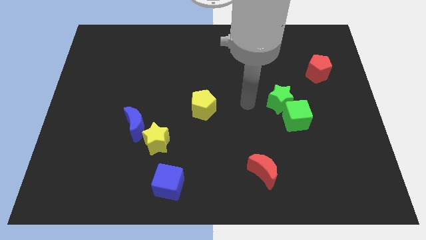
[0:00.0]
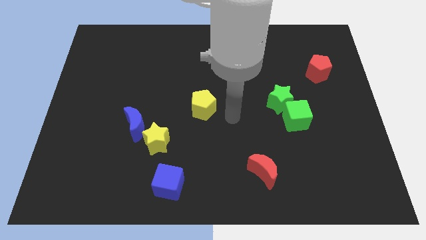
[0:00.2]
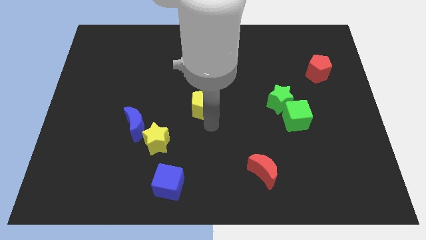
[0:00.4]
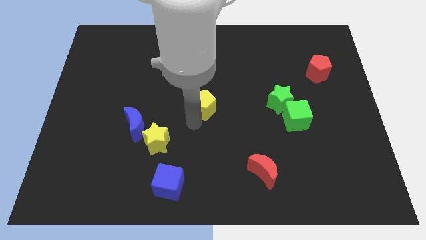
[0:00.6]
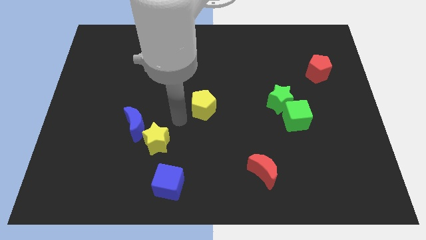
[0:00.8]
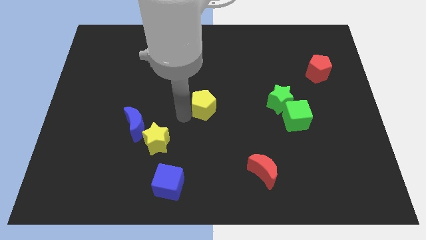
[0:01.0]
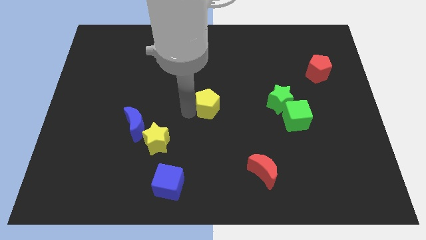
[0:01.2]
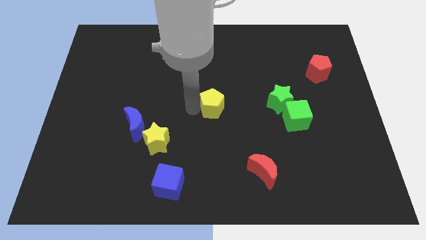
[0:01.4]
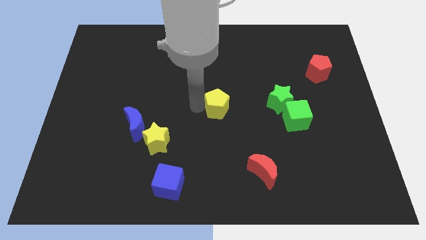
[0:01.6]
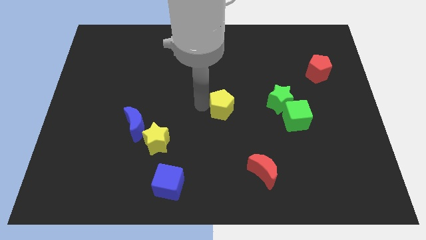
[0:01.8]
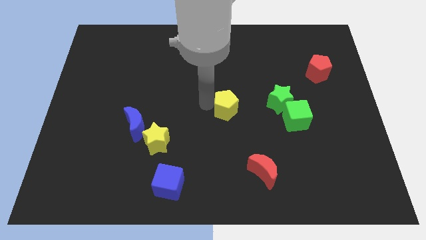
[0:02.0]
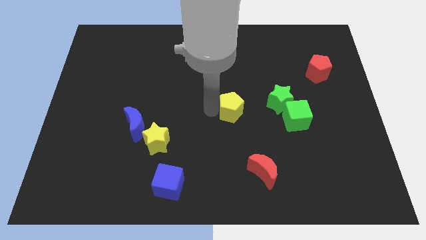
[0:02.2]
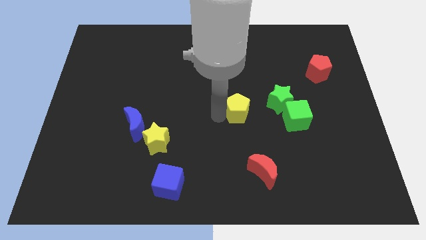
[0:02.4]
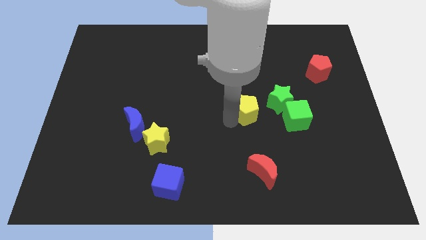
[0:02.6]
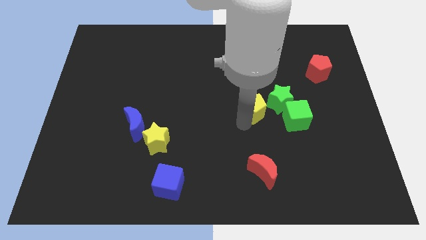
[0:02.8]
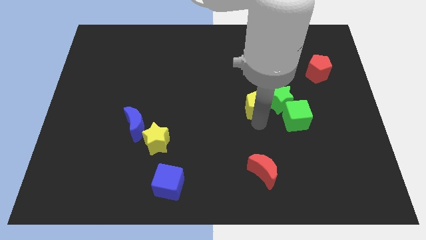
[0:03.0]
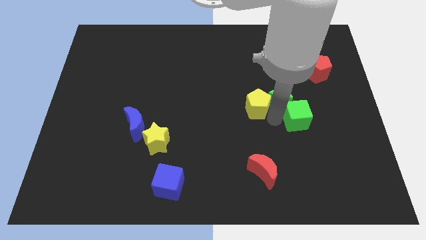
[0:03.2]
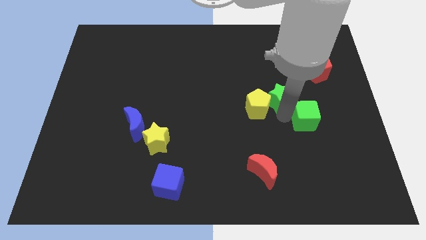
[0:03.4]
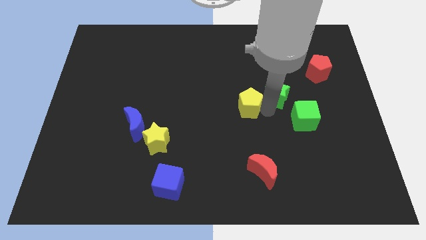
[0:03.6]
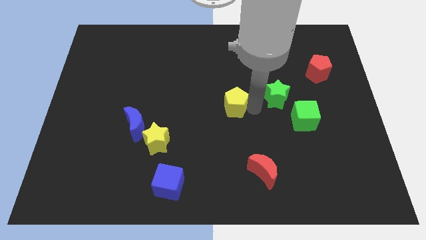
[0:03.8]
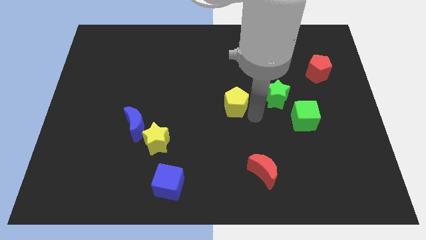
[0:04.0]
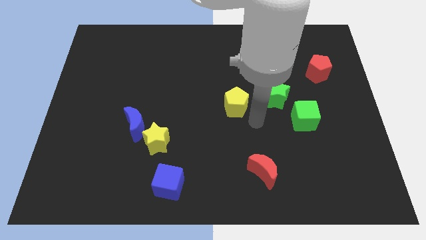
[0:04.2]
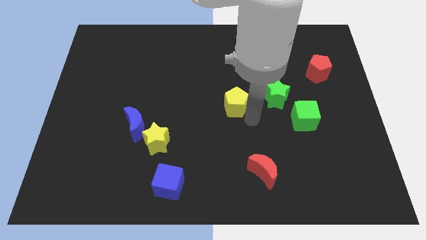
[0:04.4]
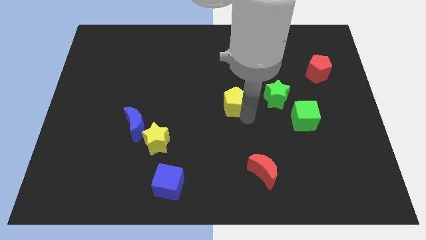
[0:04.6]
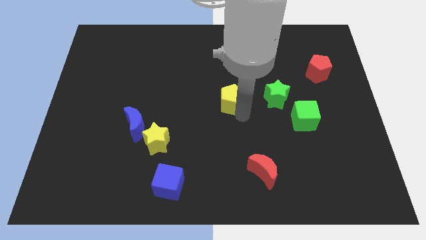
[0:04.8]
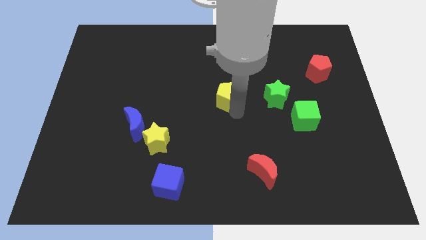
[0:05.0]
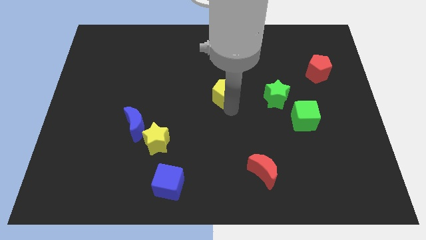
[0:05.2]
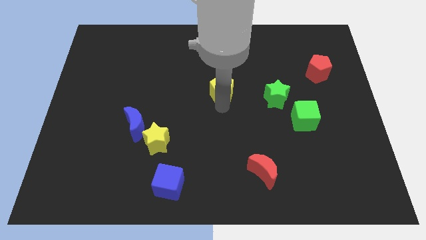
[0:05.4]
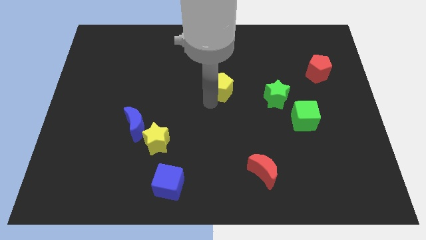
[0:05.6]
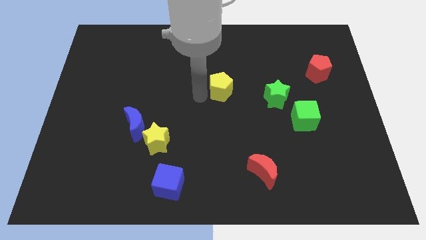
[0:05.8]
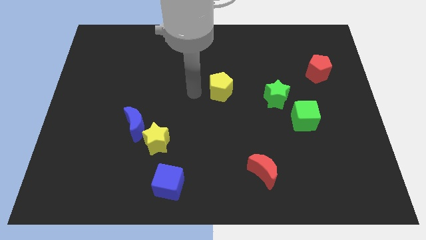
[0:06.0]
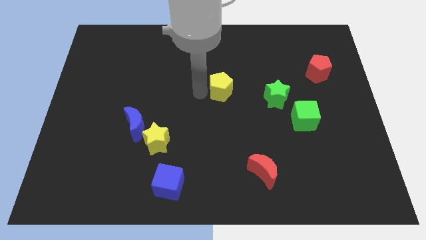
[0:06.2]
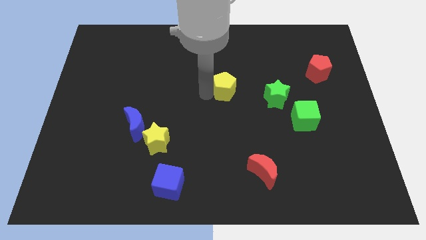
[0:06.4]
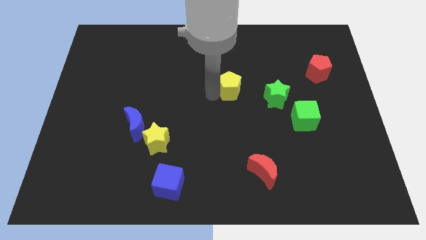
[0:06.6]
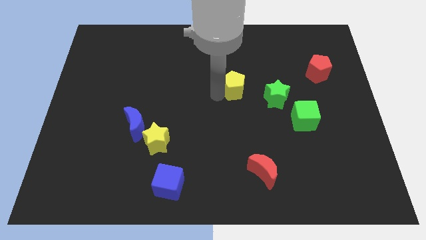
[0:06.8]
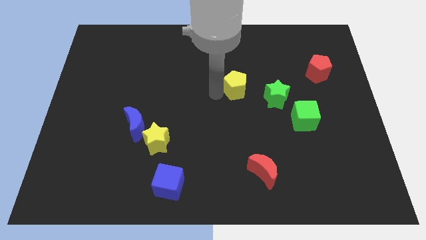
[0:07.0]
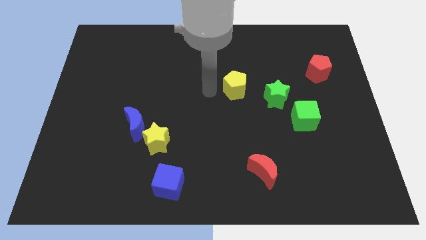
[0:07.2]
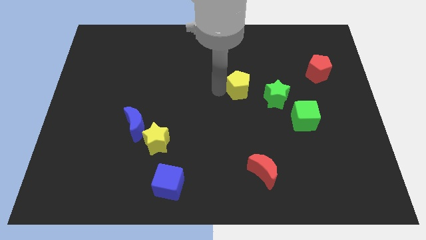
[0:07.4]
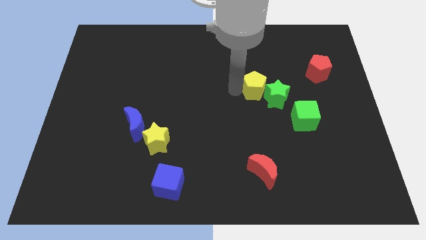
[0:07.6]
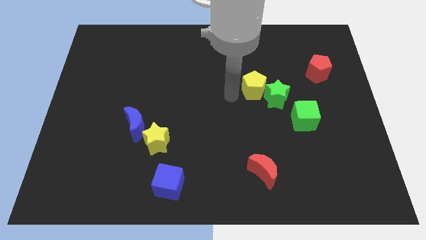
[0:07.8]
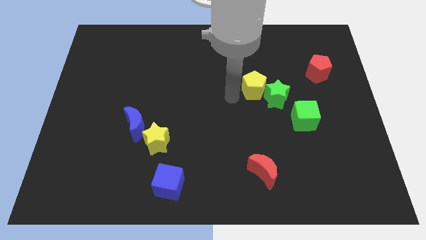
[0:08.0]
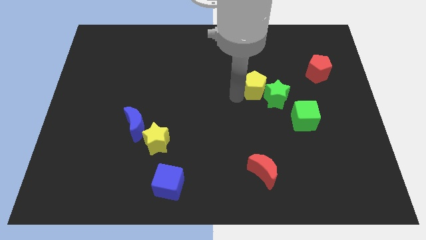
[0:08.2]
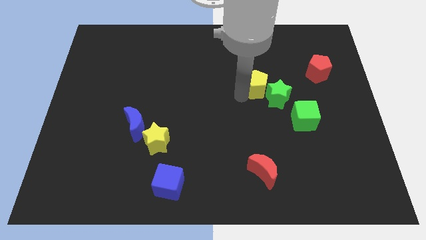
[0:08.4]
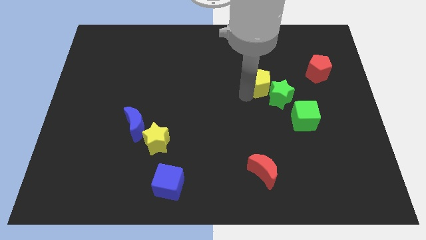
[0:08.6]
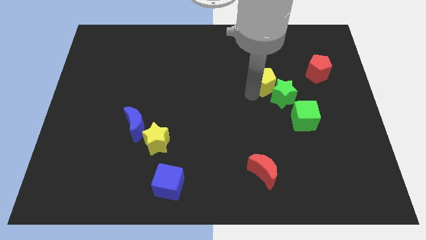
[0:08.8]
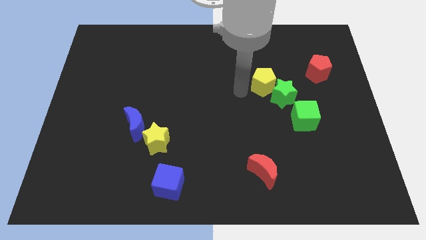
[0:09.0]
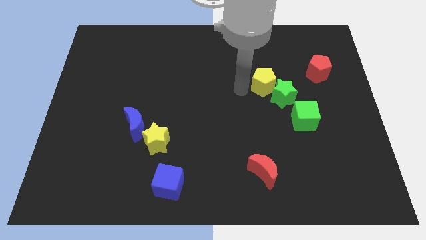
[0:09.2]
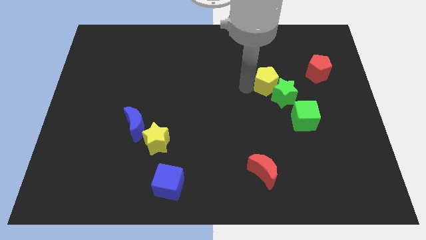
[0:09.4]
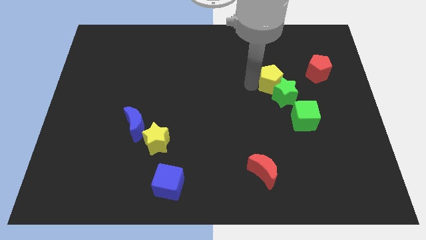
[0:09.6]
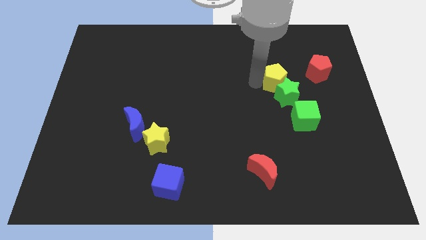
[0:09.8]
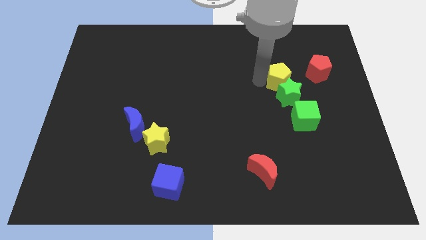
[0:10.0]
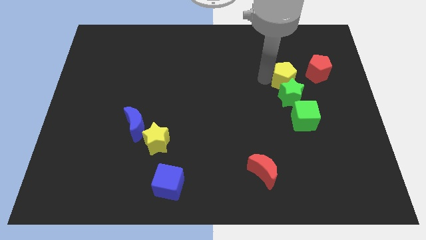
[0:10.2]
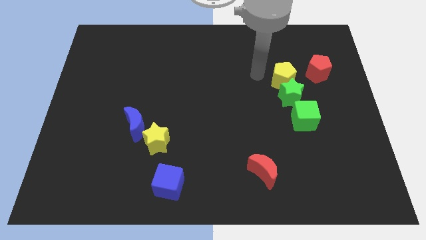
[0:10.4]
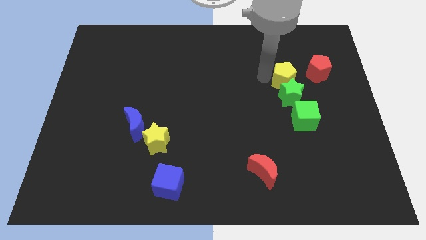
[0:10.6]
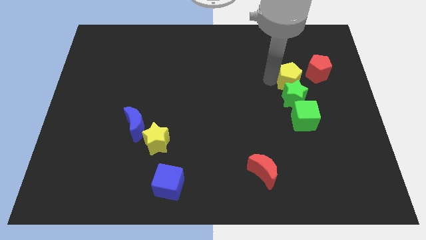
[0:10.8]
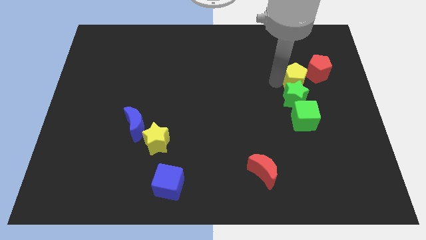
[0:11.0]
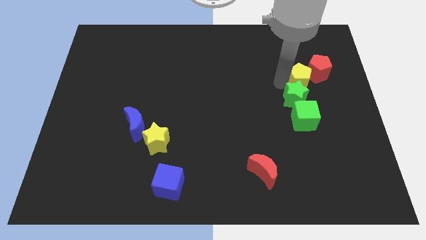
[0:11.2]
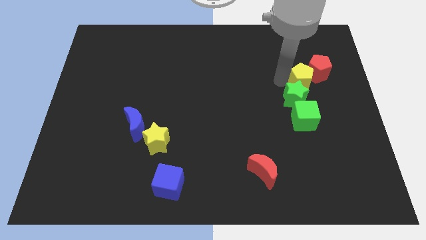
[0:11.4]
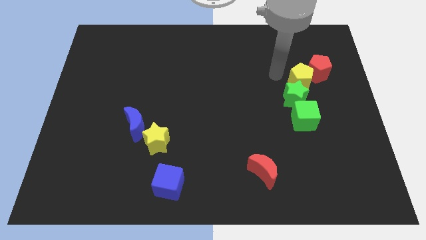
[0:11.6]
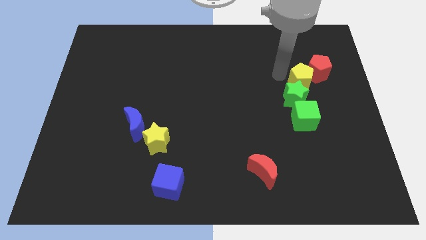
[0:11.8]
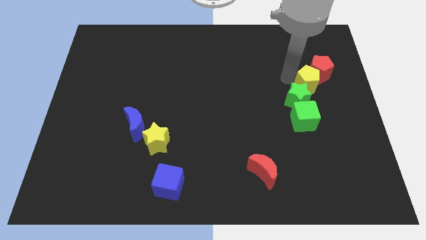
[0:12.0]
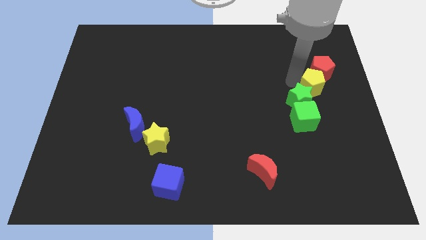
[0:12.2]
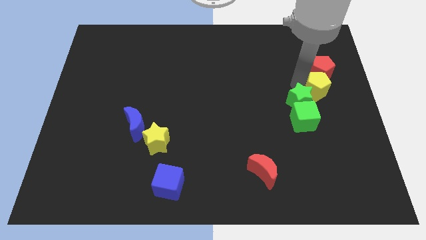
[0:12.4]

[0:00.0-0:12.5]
slide the yellow pentagon to the right side

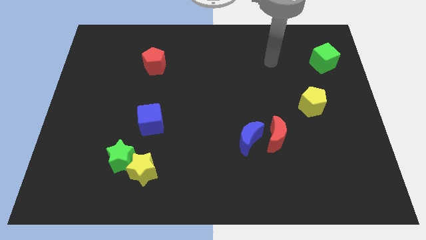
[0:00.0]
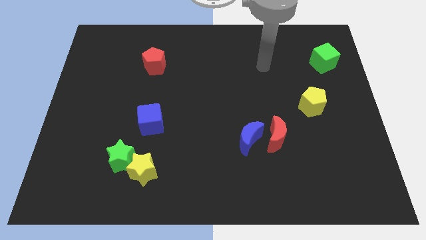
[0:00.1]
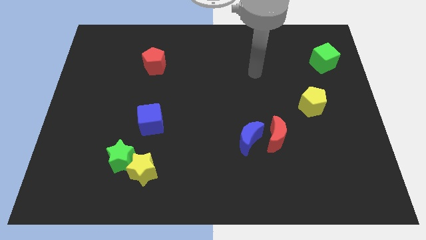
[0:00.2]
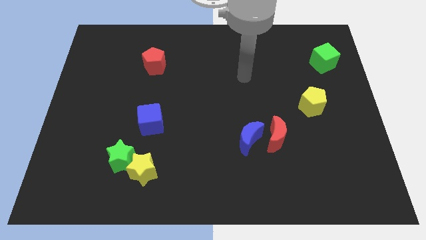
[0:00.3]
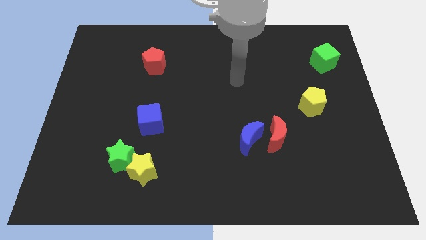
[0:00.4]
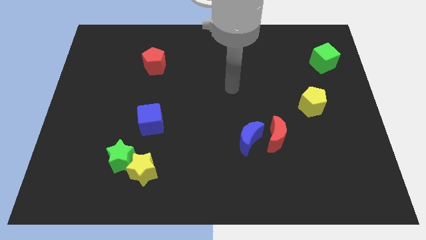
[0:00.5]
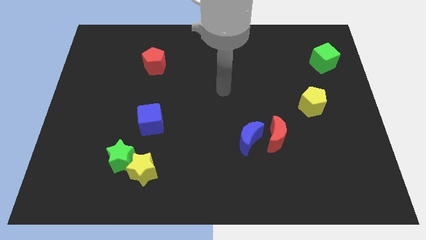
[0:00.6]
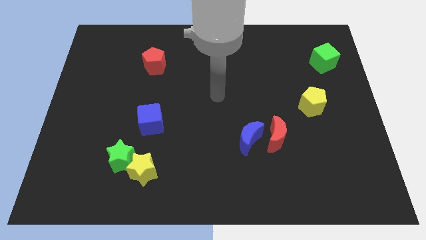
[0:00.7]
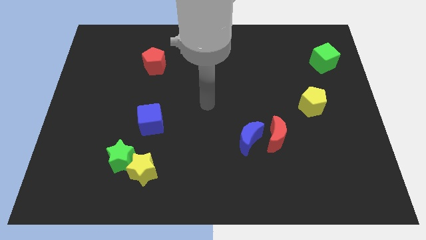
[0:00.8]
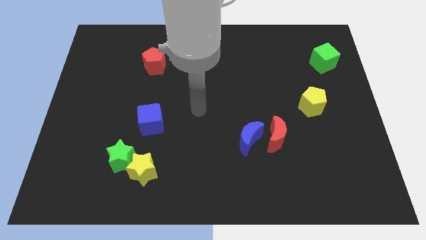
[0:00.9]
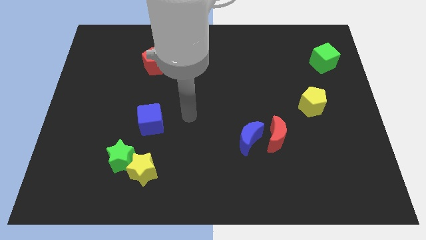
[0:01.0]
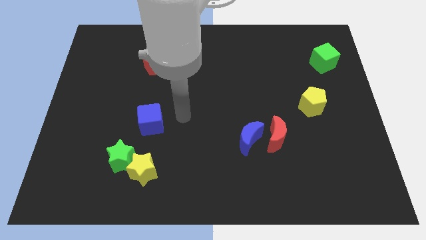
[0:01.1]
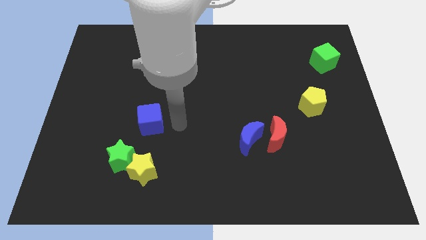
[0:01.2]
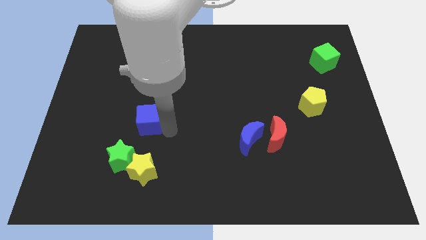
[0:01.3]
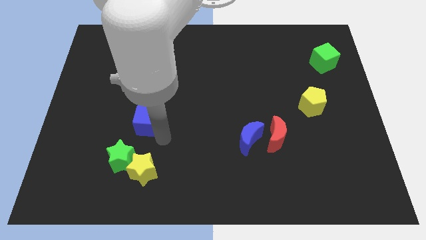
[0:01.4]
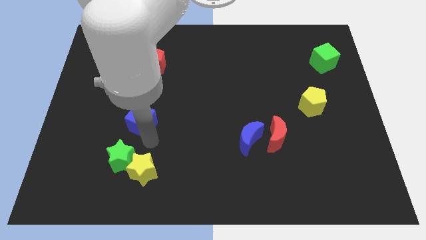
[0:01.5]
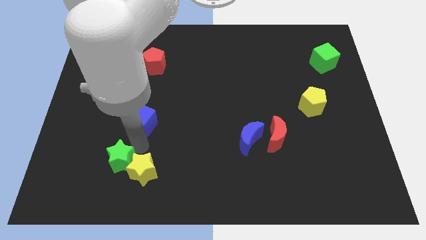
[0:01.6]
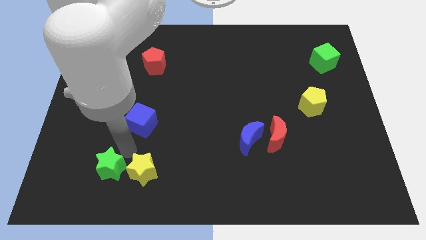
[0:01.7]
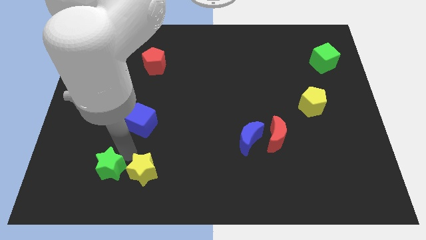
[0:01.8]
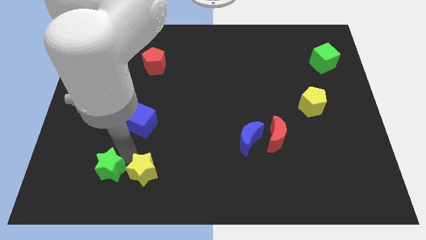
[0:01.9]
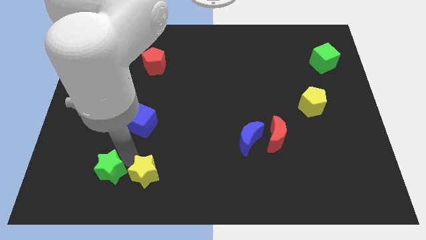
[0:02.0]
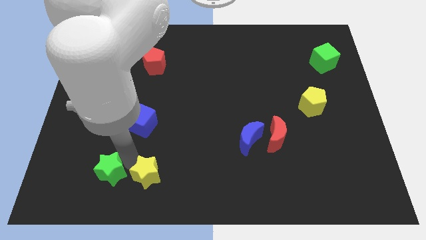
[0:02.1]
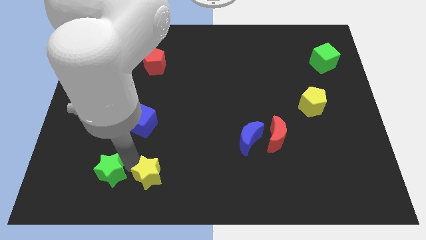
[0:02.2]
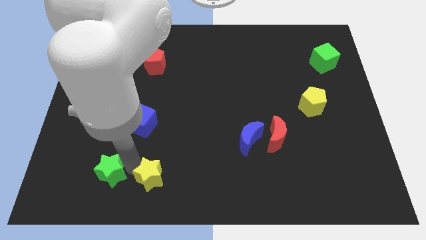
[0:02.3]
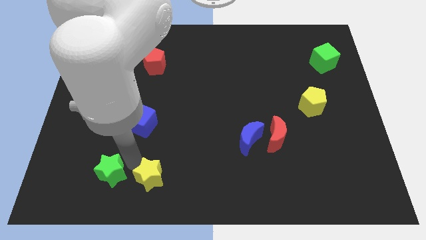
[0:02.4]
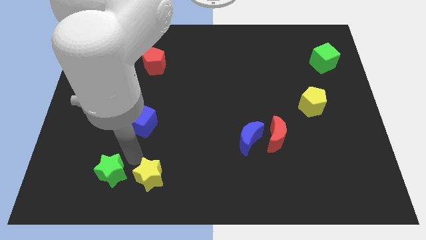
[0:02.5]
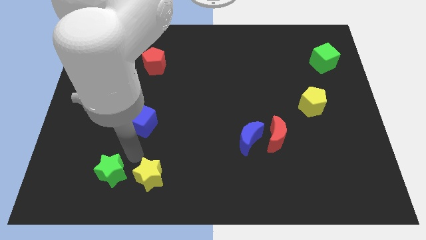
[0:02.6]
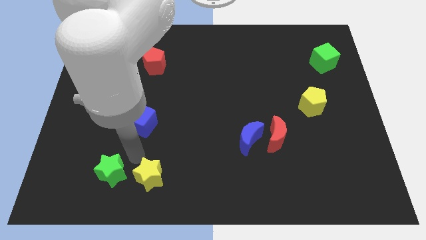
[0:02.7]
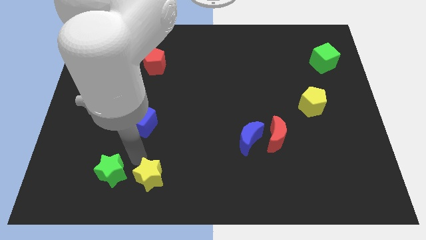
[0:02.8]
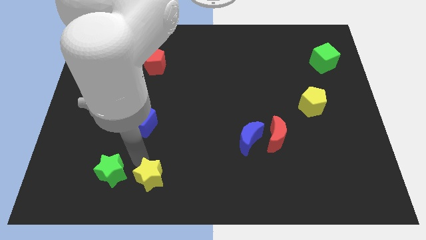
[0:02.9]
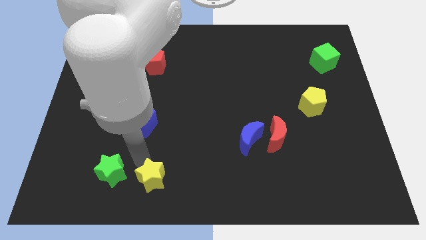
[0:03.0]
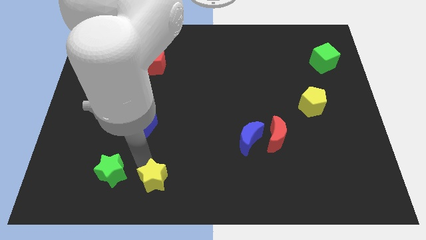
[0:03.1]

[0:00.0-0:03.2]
put the yellow star to the bottom side
